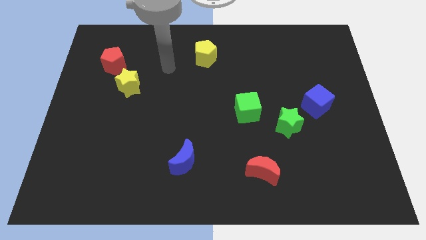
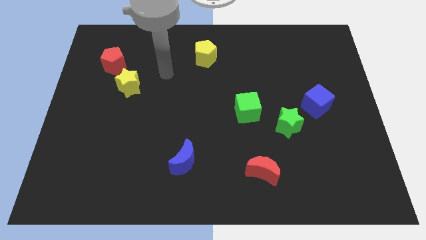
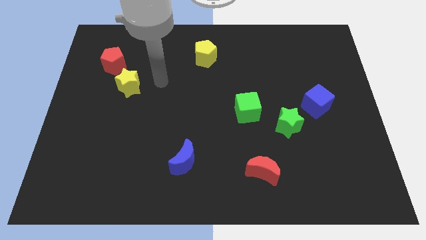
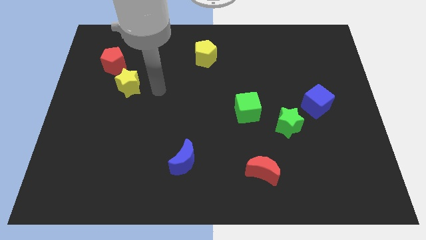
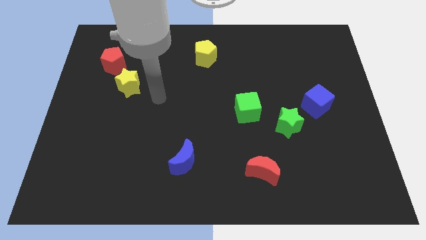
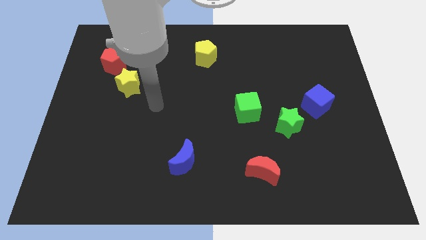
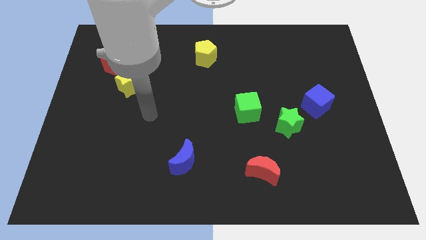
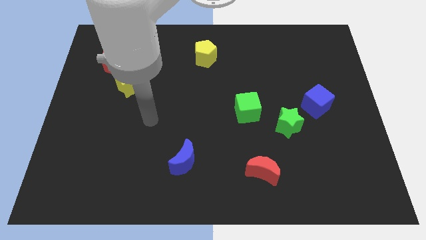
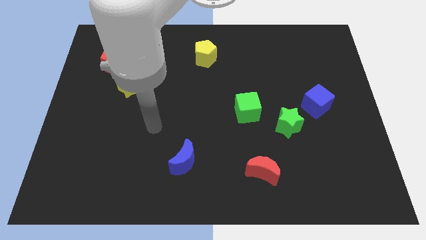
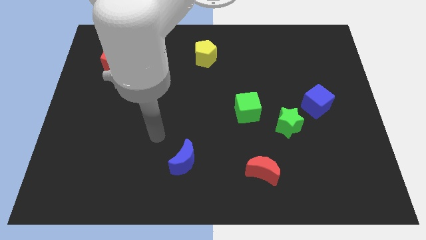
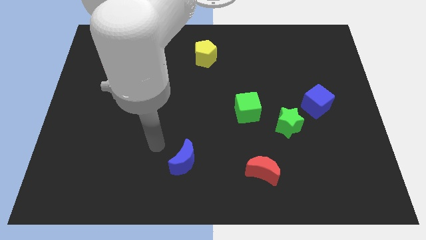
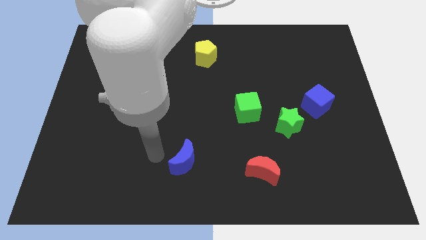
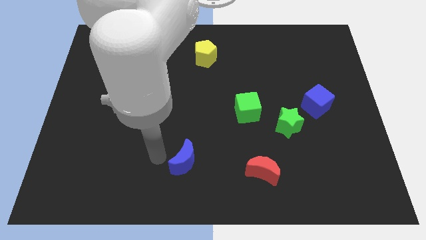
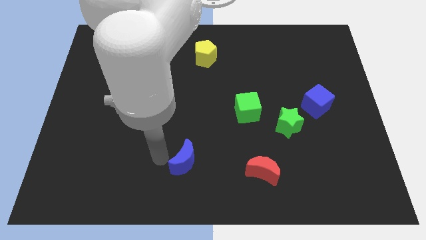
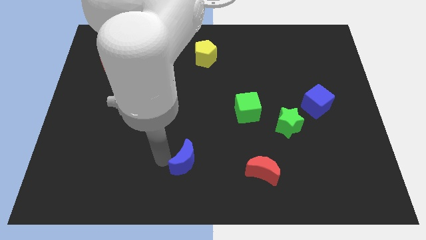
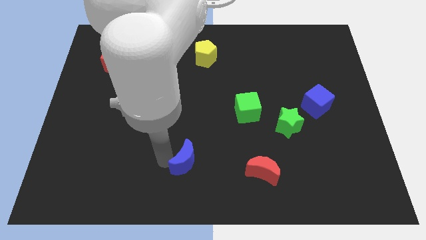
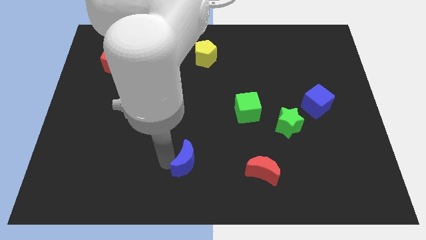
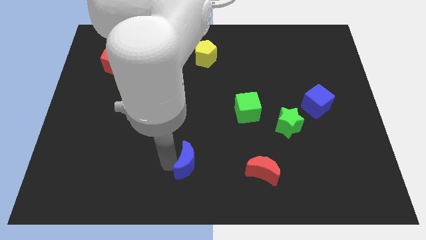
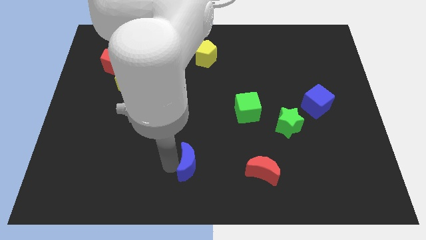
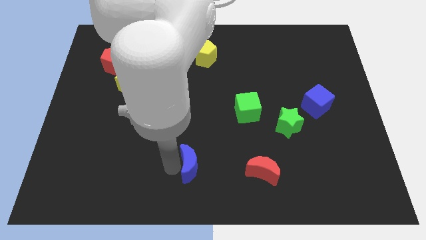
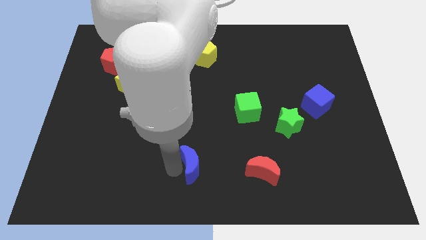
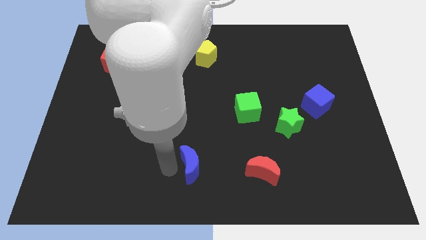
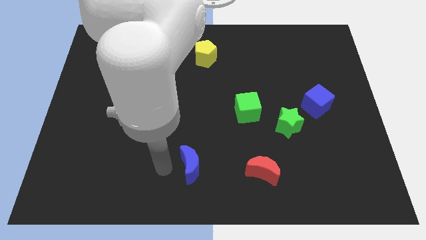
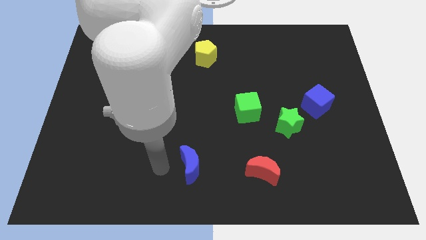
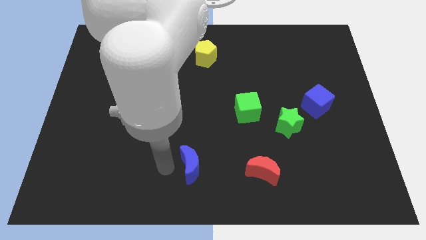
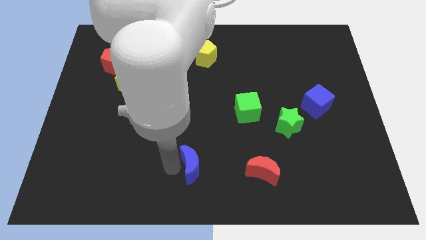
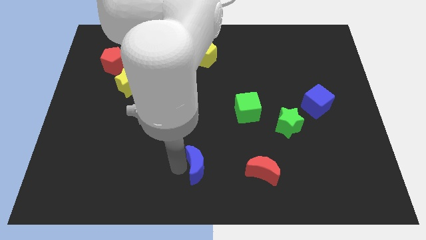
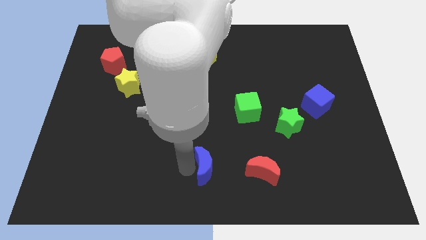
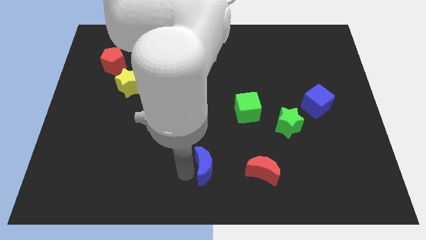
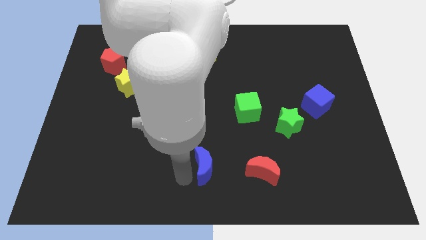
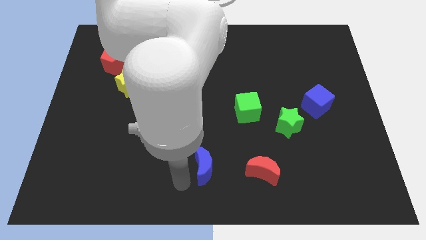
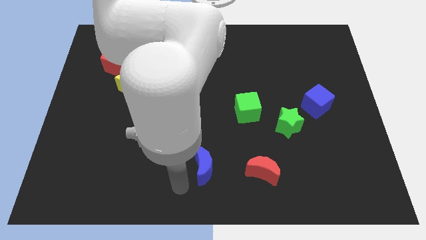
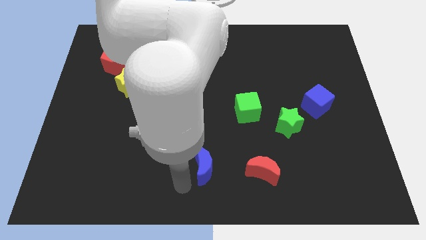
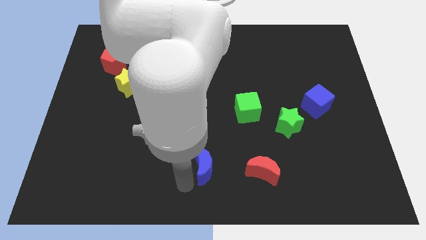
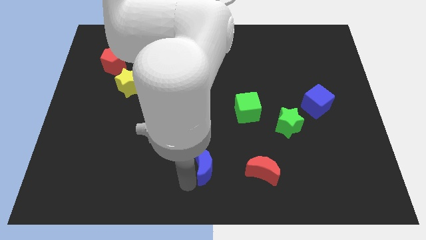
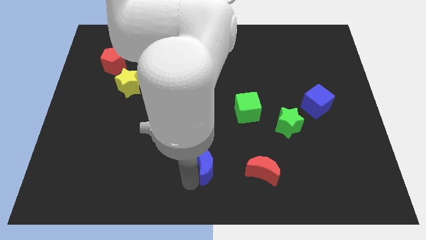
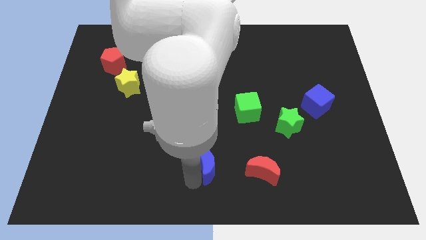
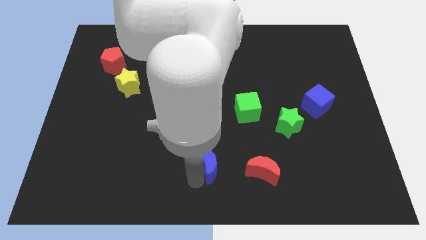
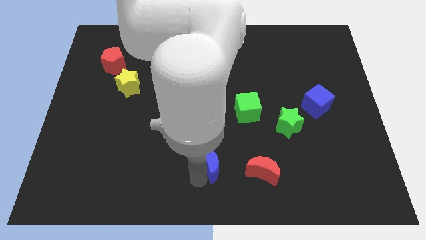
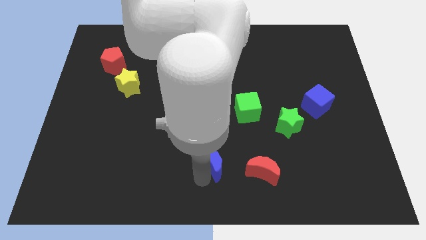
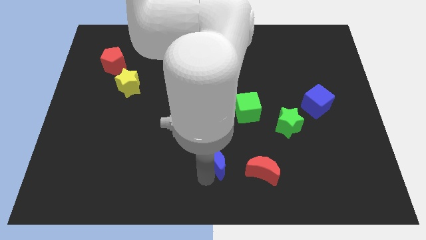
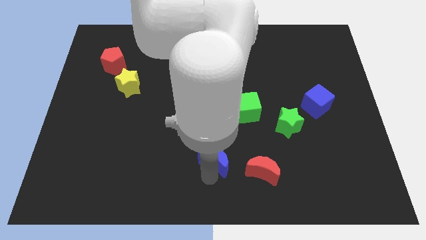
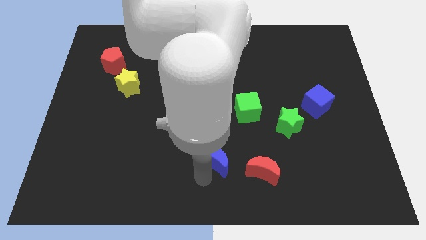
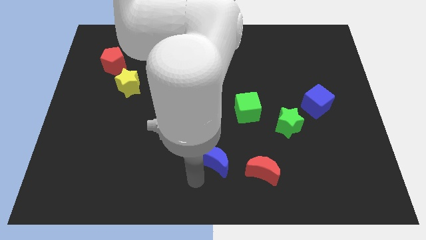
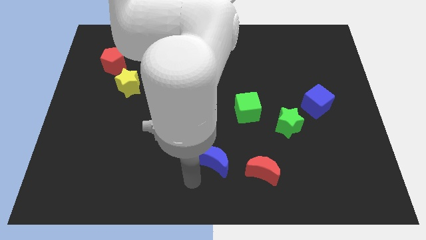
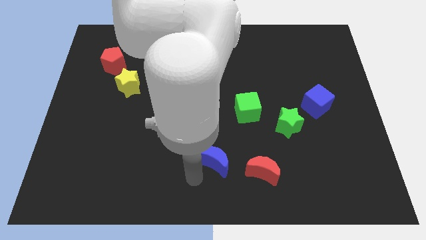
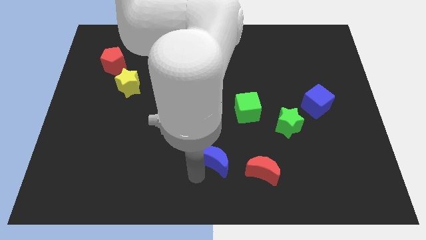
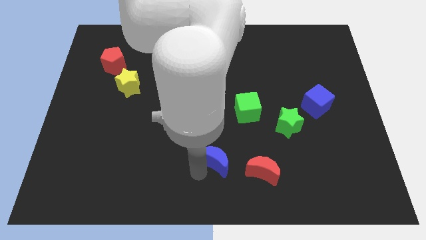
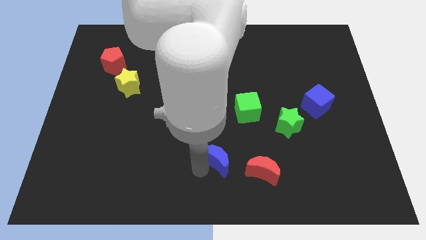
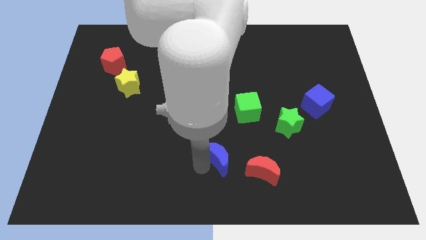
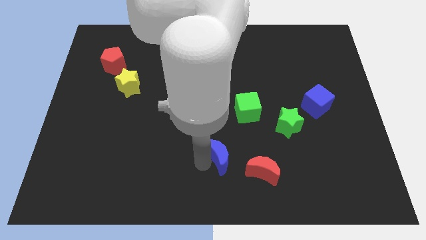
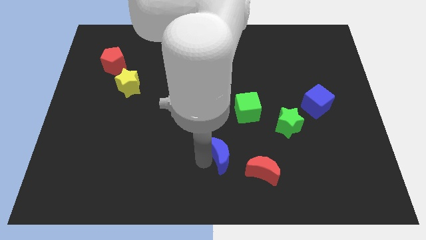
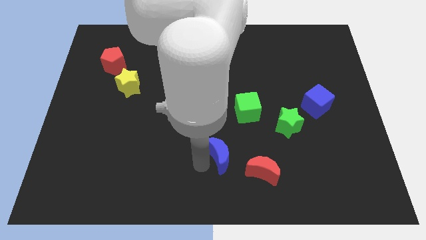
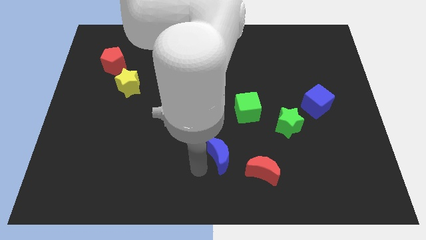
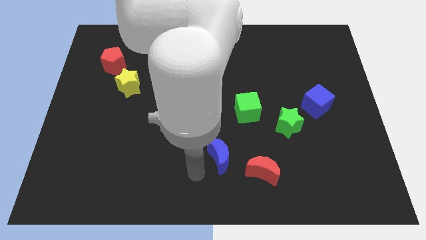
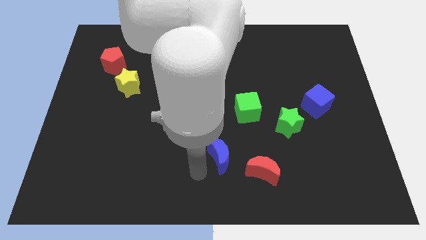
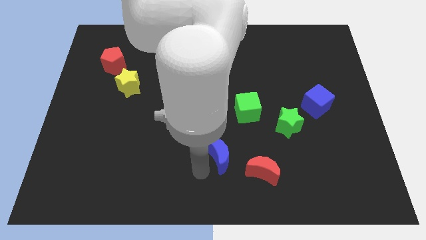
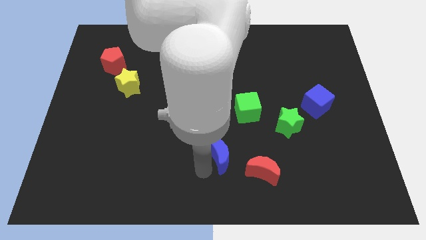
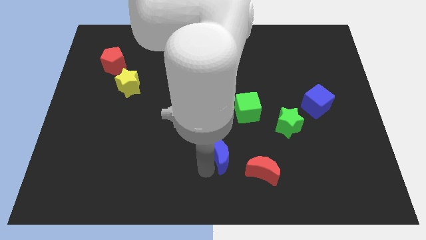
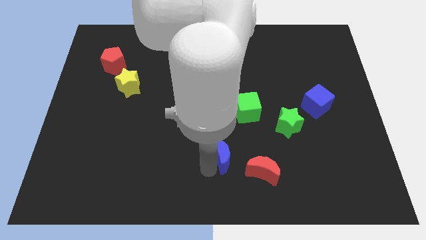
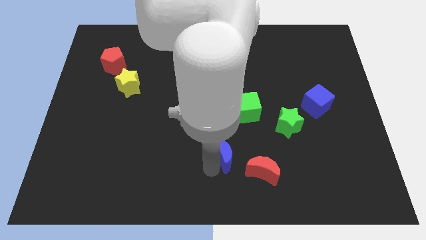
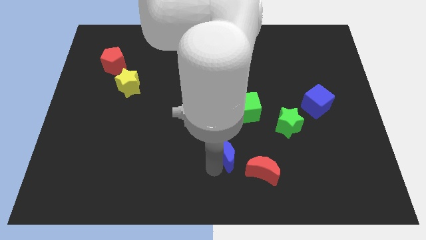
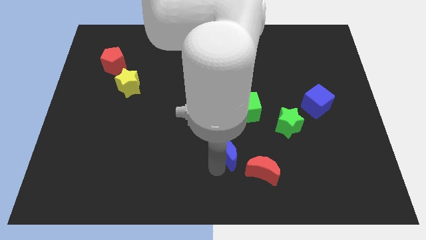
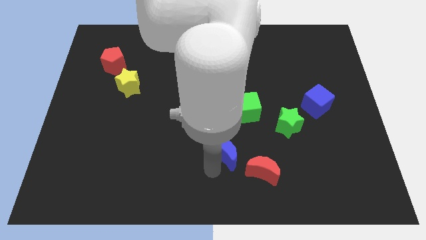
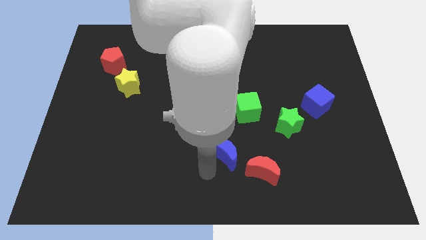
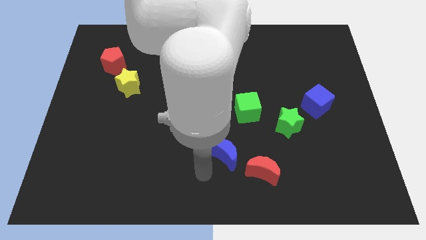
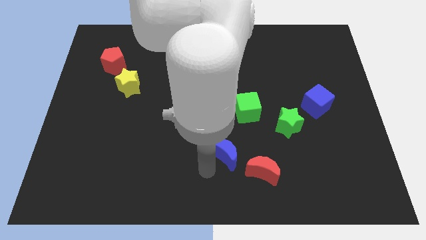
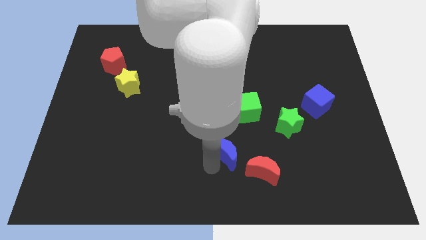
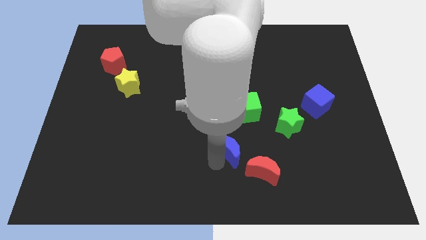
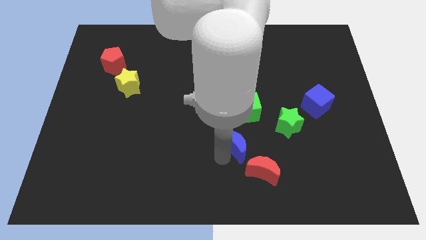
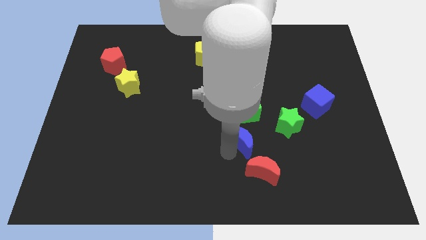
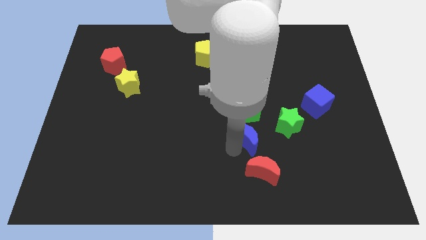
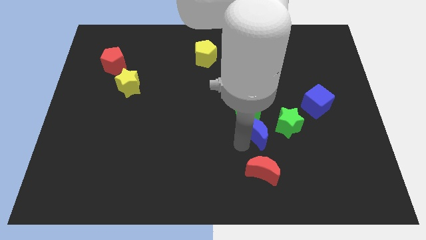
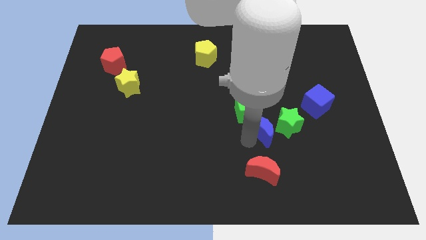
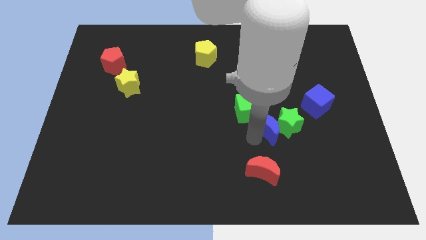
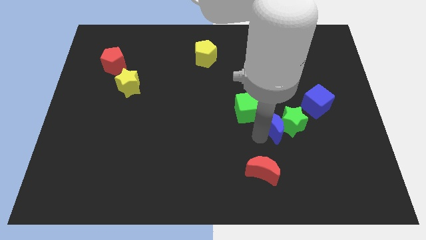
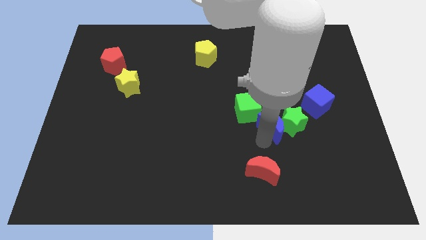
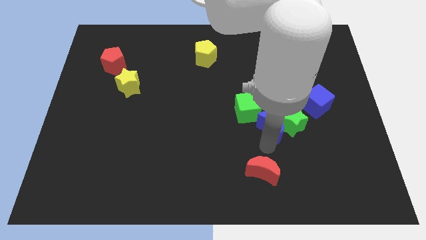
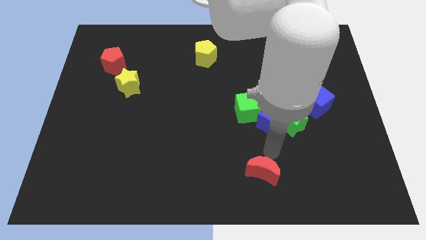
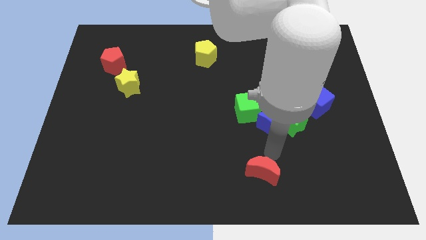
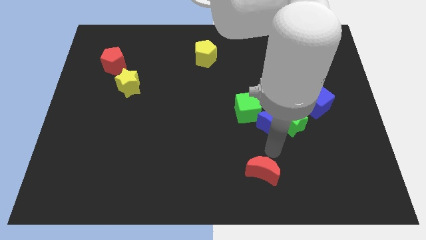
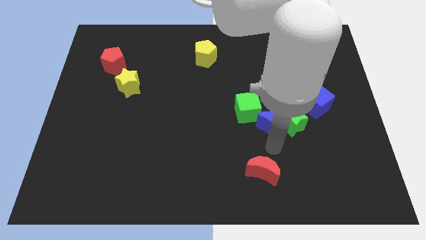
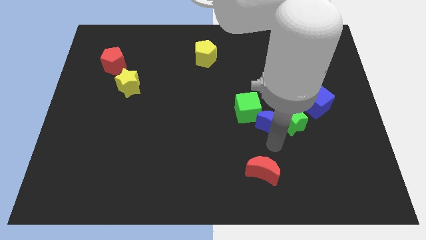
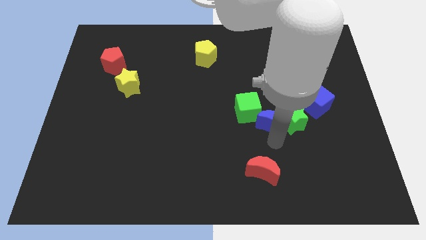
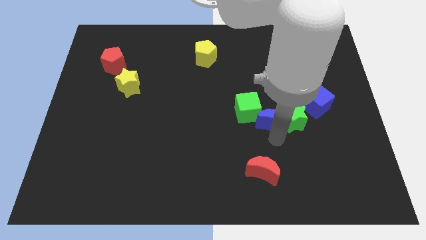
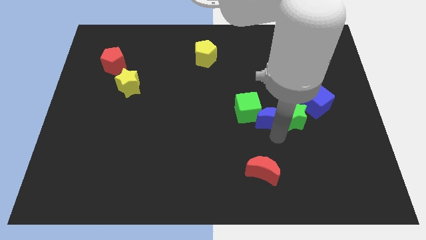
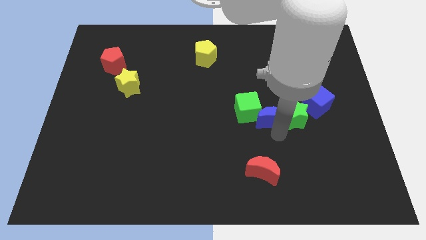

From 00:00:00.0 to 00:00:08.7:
move the blue moon diagonally up and right
